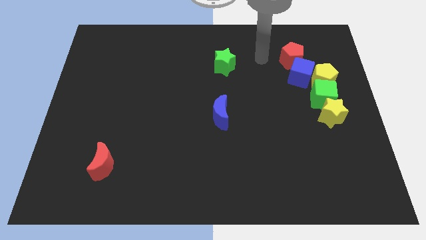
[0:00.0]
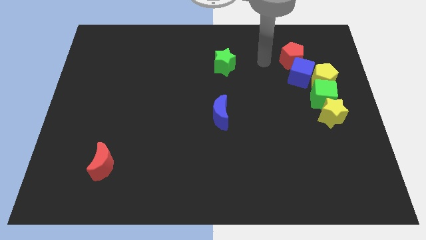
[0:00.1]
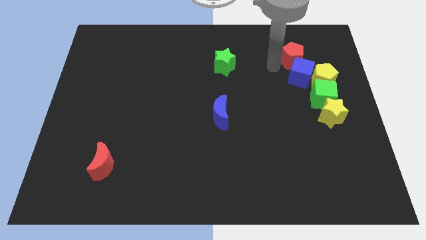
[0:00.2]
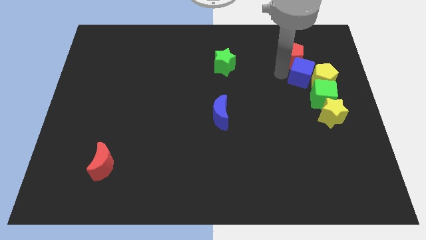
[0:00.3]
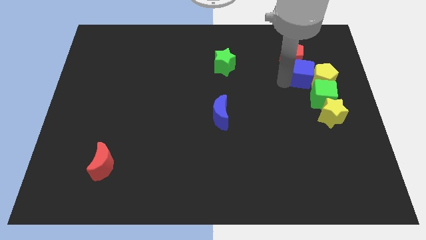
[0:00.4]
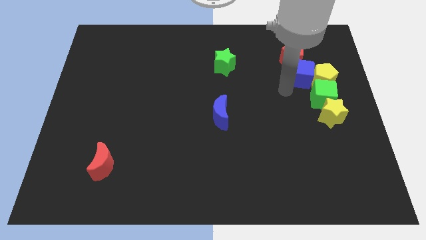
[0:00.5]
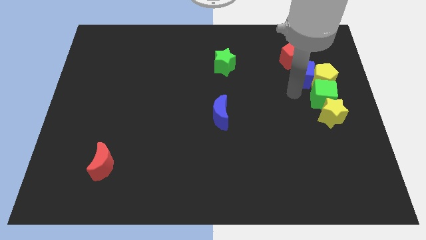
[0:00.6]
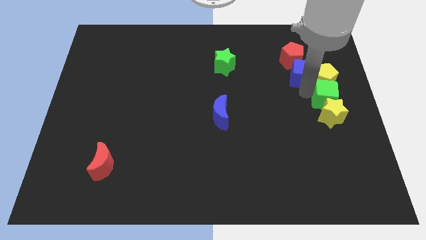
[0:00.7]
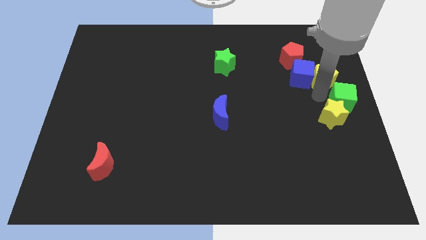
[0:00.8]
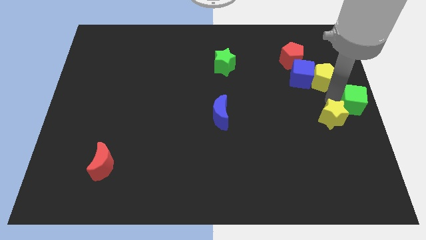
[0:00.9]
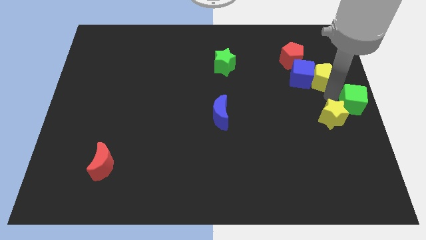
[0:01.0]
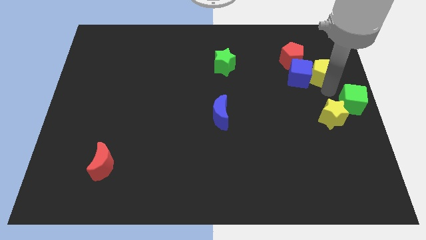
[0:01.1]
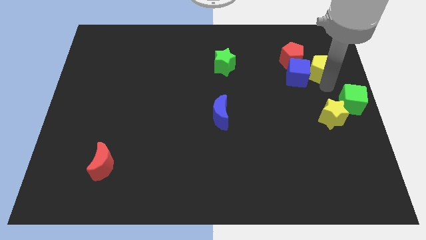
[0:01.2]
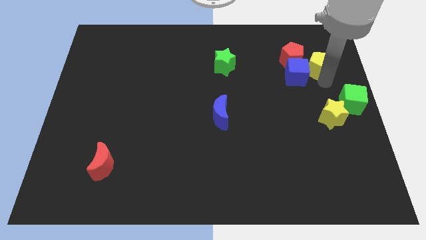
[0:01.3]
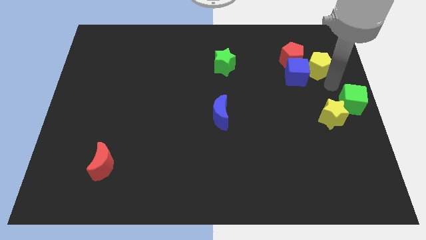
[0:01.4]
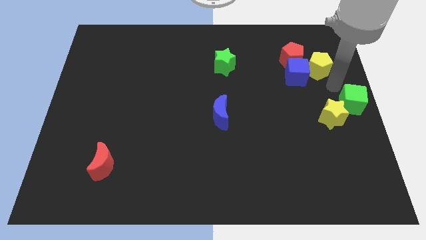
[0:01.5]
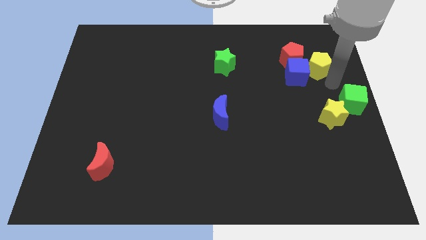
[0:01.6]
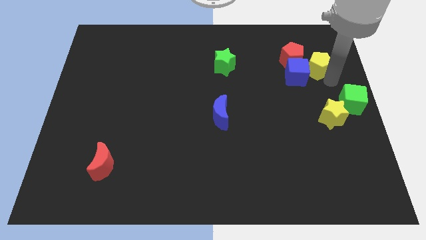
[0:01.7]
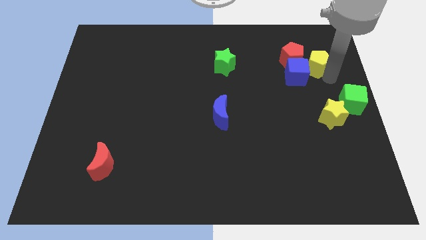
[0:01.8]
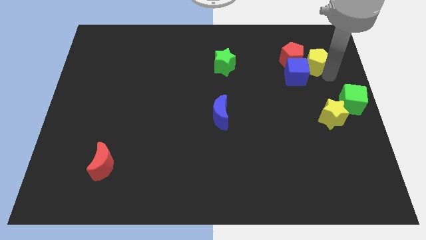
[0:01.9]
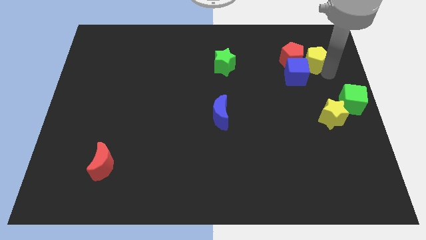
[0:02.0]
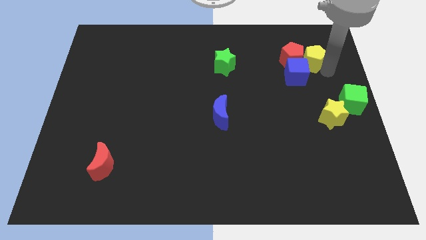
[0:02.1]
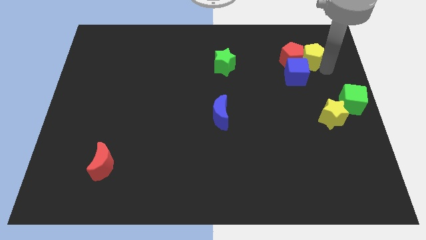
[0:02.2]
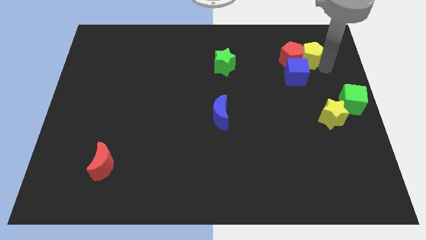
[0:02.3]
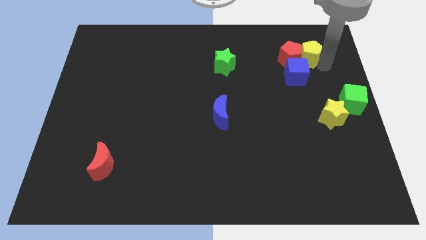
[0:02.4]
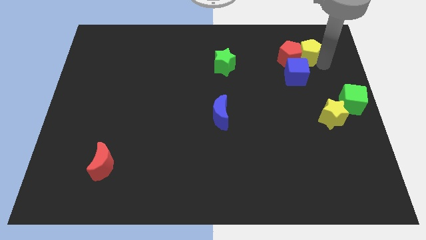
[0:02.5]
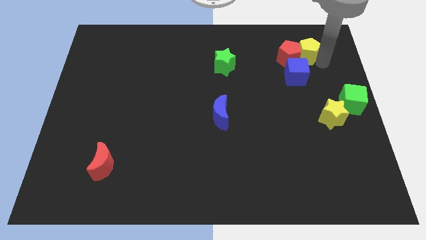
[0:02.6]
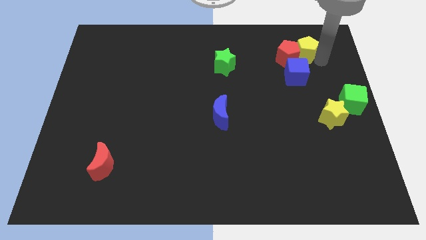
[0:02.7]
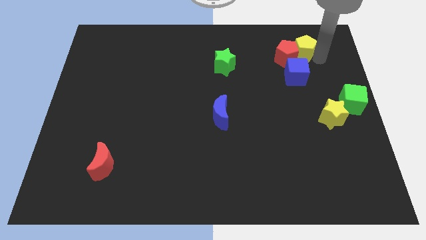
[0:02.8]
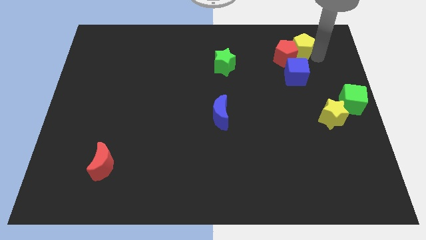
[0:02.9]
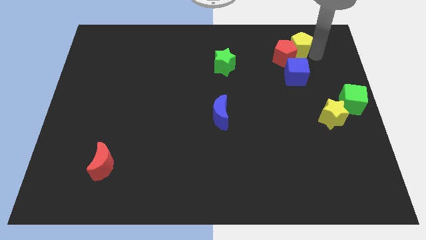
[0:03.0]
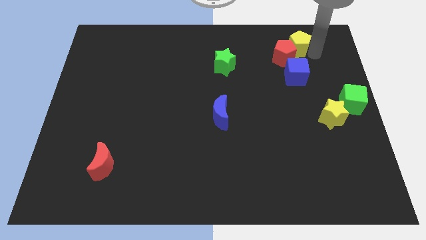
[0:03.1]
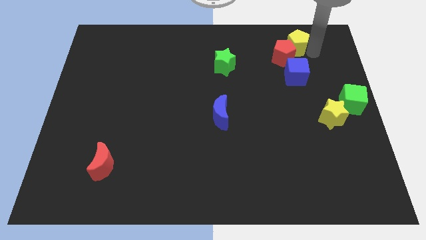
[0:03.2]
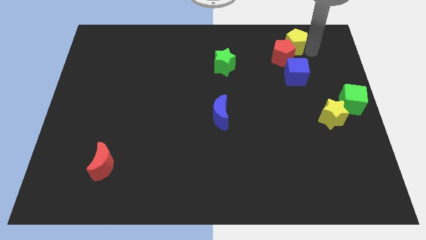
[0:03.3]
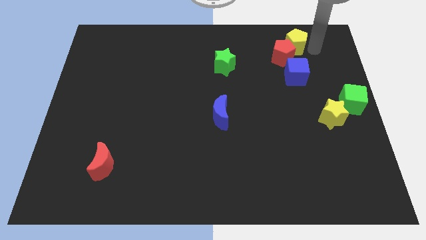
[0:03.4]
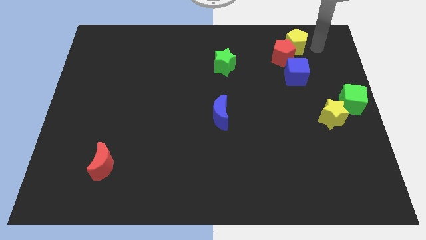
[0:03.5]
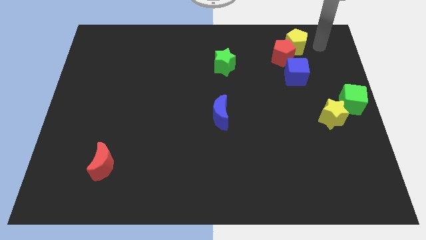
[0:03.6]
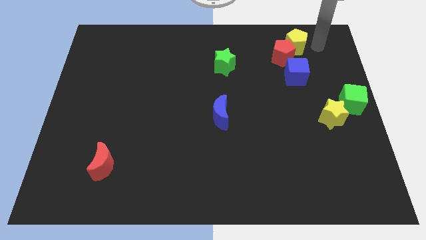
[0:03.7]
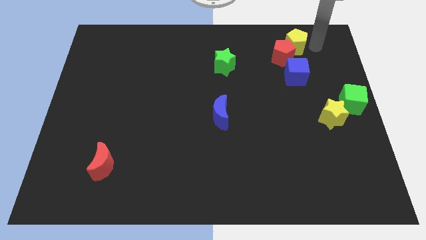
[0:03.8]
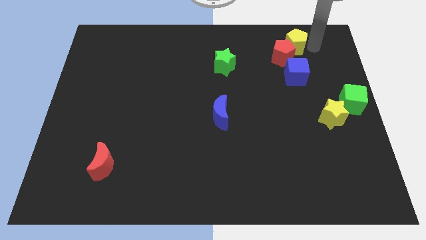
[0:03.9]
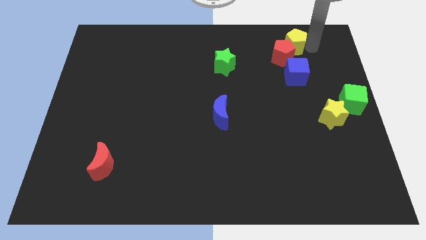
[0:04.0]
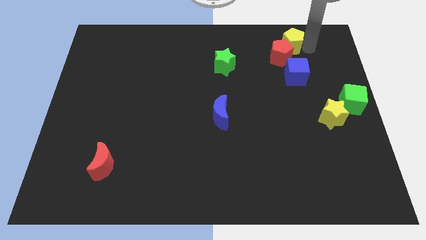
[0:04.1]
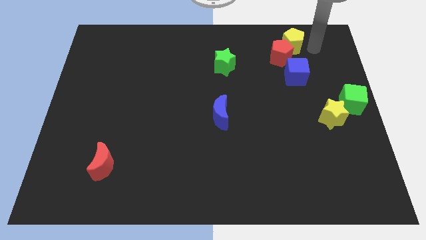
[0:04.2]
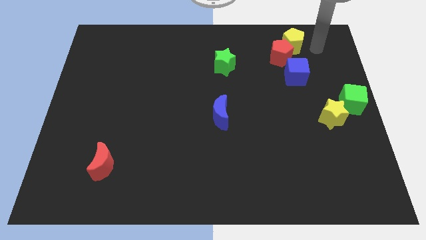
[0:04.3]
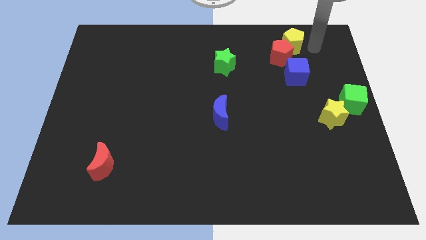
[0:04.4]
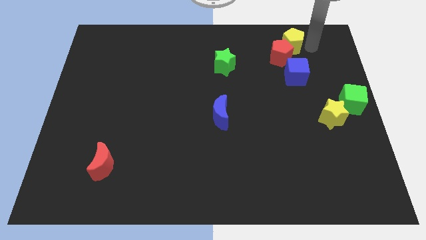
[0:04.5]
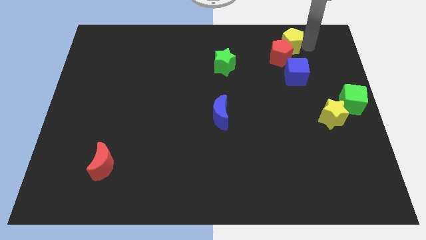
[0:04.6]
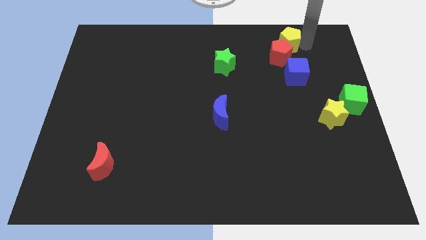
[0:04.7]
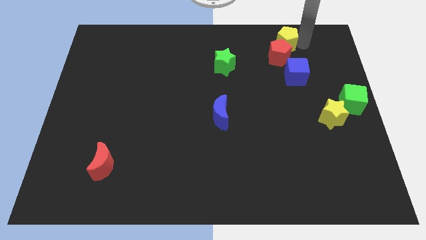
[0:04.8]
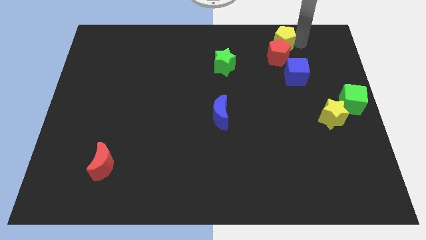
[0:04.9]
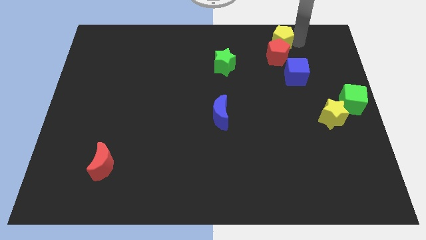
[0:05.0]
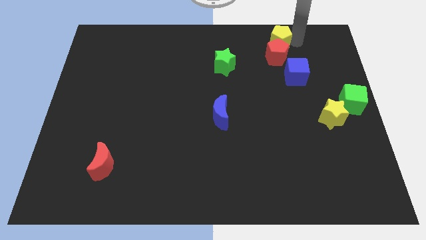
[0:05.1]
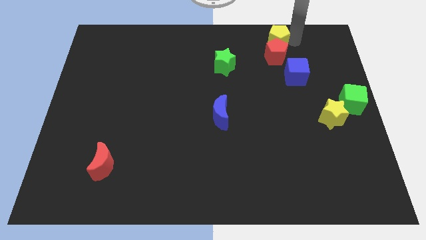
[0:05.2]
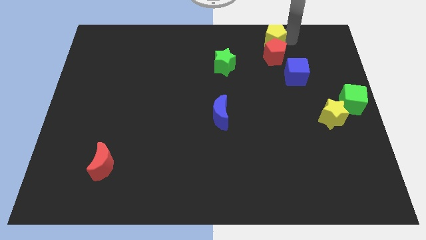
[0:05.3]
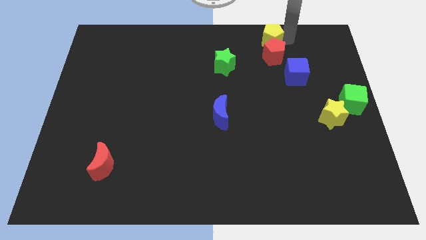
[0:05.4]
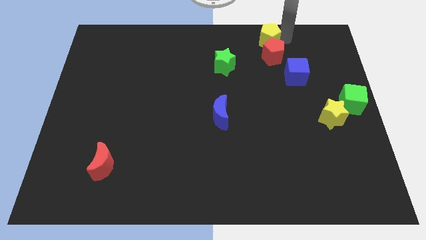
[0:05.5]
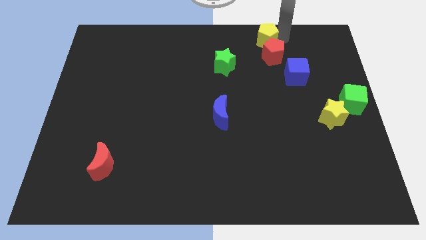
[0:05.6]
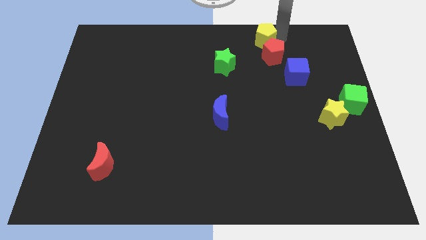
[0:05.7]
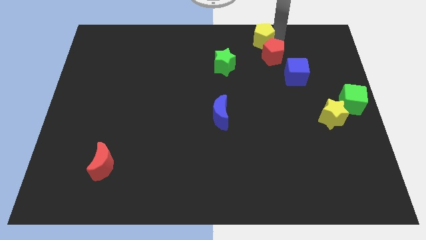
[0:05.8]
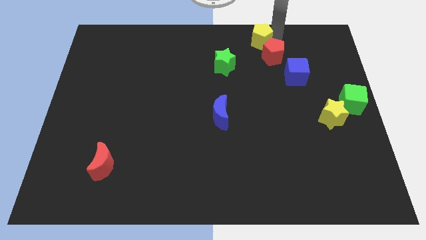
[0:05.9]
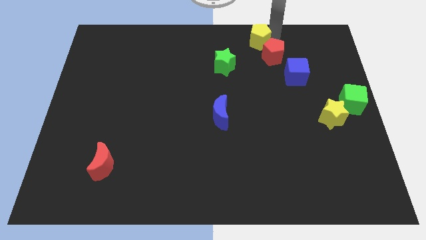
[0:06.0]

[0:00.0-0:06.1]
slide the yellow pentagon to the top side
